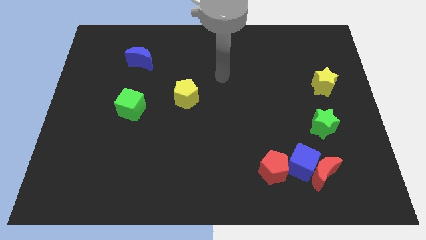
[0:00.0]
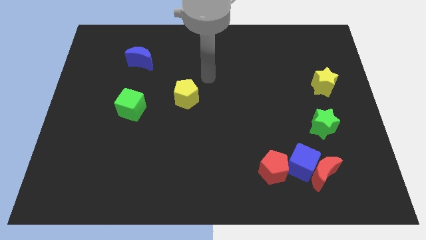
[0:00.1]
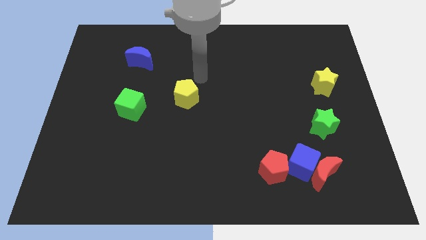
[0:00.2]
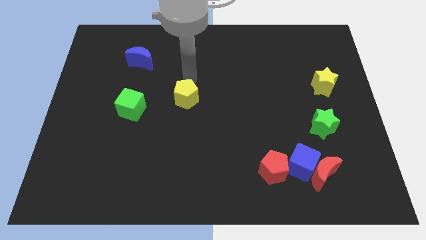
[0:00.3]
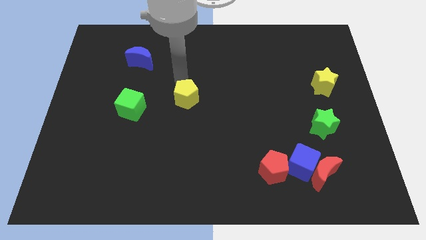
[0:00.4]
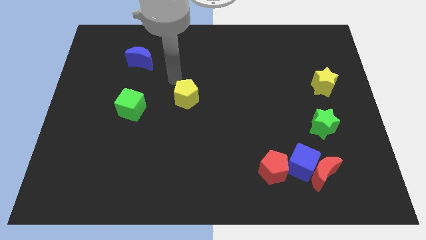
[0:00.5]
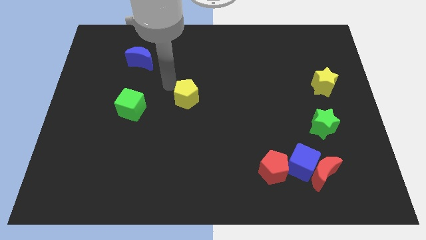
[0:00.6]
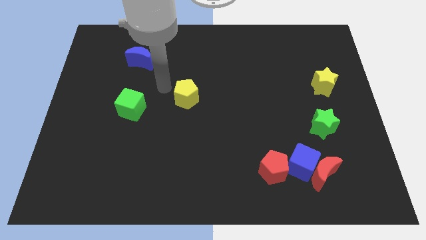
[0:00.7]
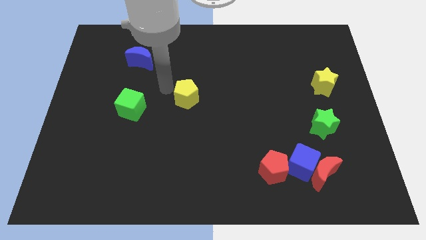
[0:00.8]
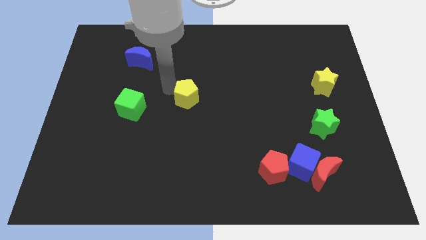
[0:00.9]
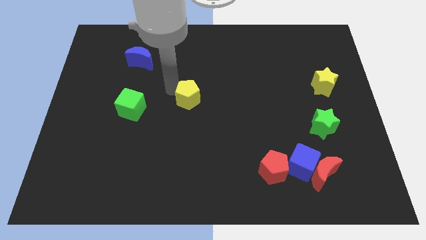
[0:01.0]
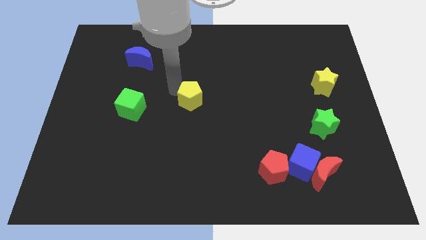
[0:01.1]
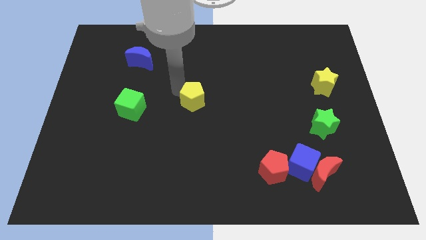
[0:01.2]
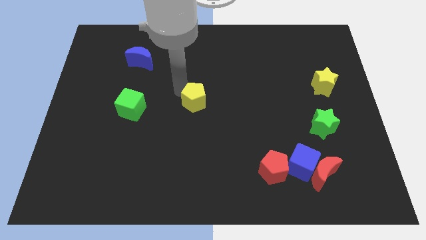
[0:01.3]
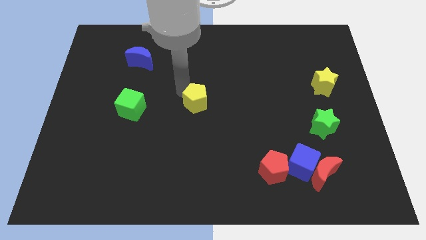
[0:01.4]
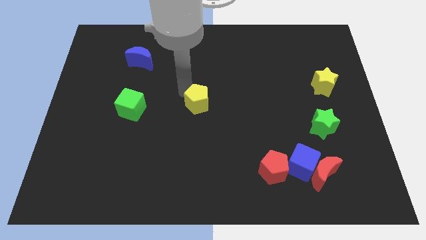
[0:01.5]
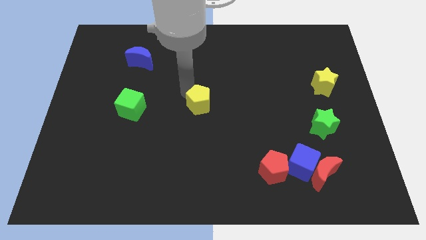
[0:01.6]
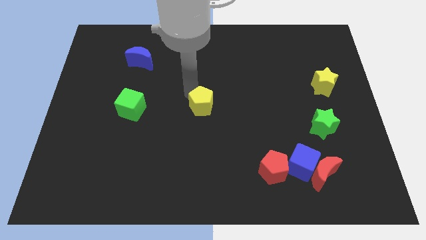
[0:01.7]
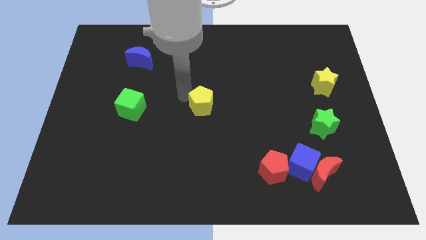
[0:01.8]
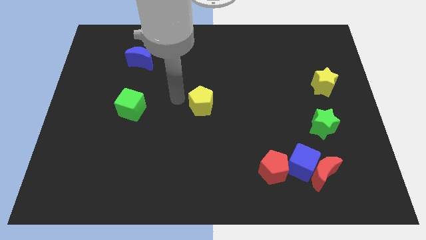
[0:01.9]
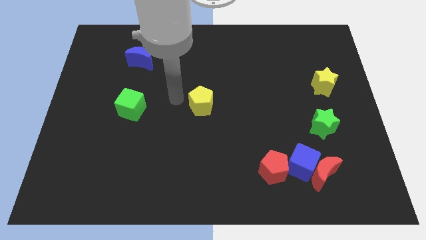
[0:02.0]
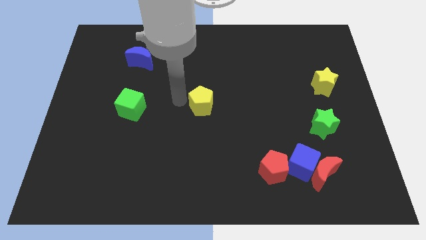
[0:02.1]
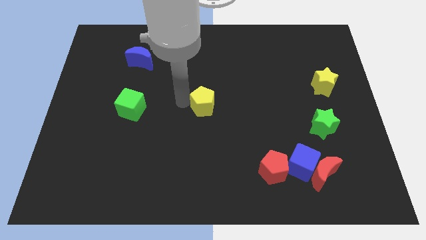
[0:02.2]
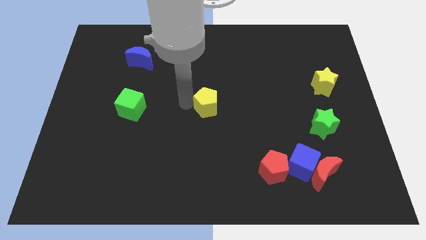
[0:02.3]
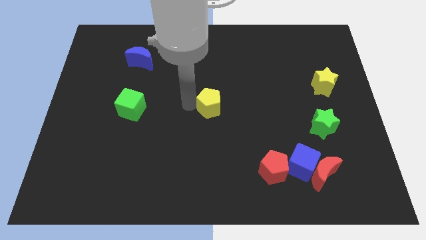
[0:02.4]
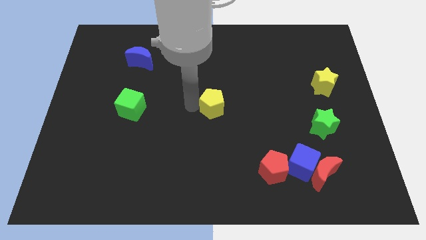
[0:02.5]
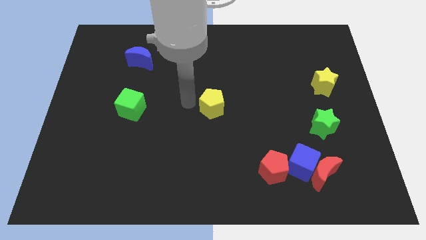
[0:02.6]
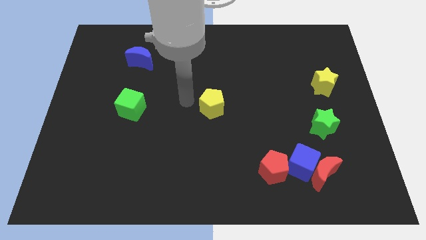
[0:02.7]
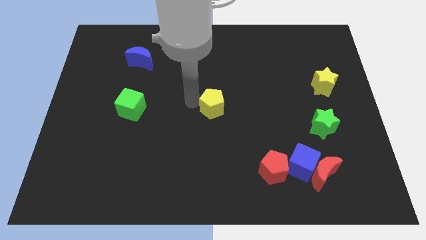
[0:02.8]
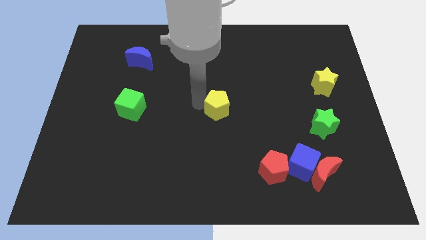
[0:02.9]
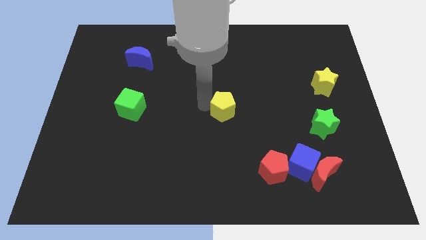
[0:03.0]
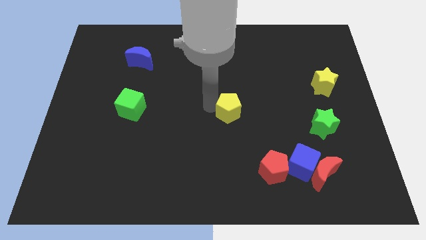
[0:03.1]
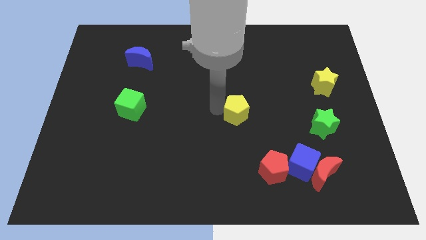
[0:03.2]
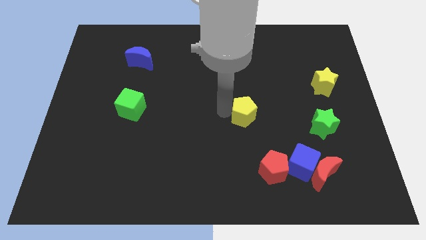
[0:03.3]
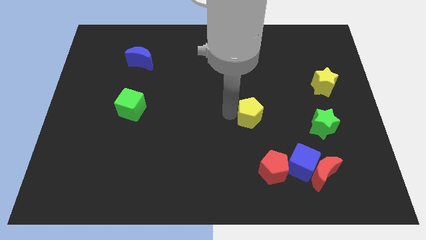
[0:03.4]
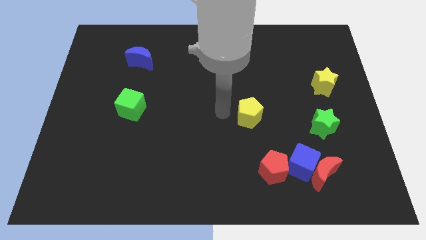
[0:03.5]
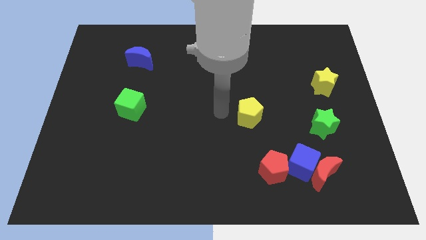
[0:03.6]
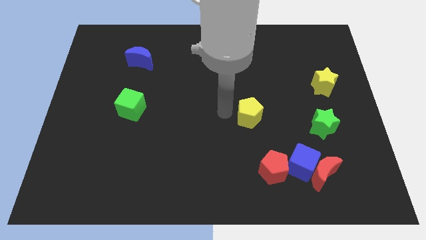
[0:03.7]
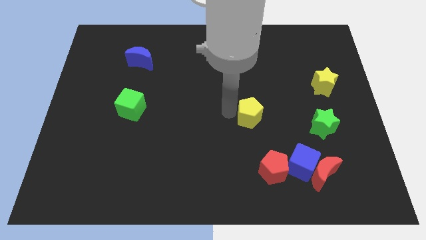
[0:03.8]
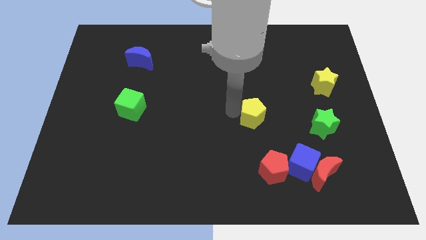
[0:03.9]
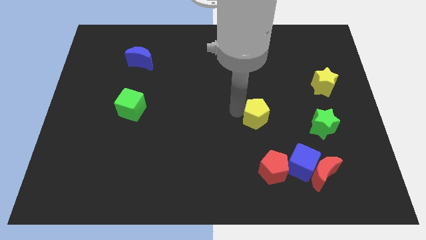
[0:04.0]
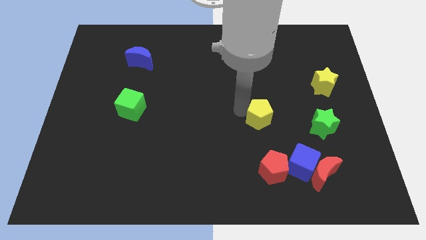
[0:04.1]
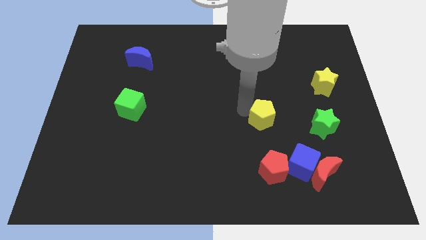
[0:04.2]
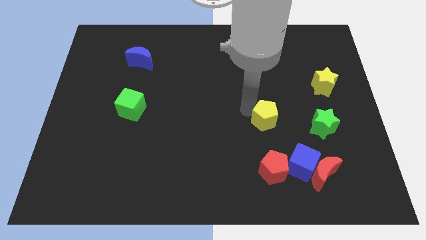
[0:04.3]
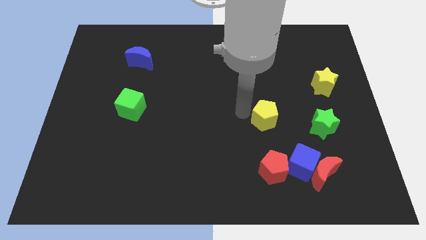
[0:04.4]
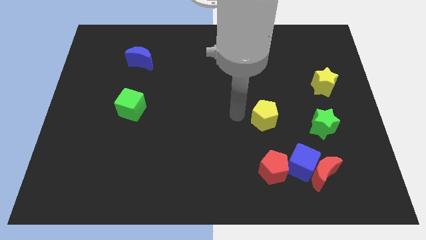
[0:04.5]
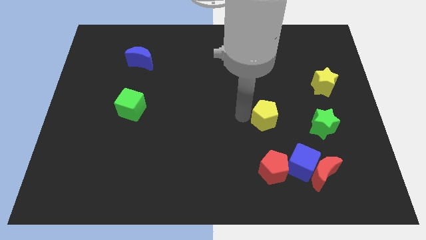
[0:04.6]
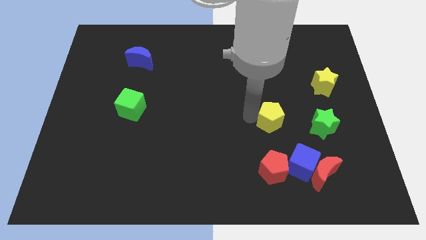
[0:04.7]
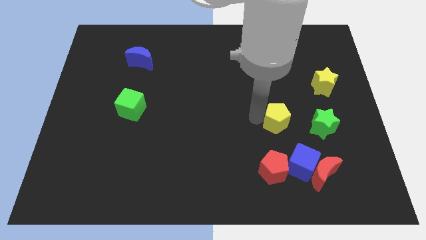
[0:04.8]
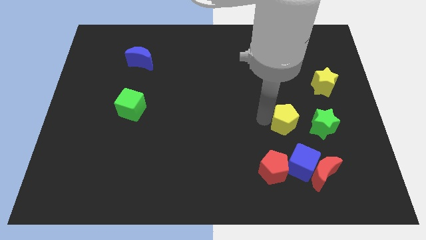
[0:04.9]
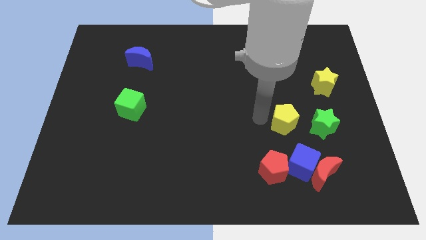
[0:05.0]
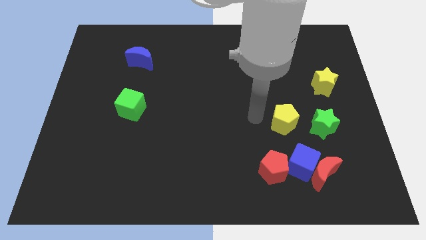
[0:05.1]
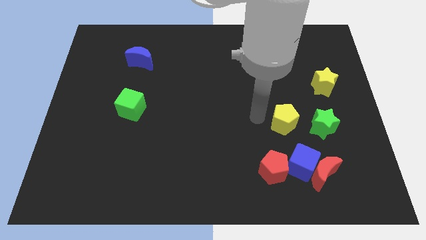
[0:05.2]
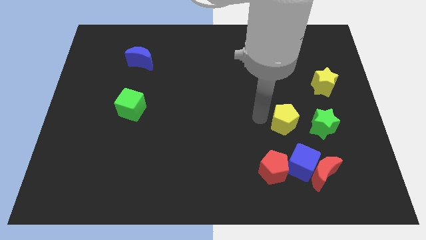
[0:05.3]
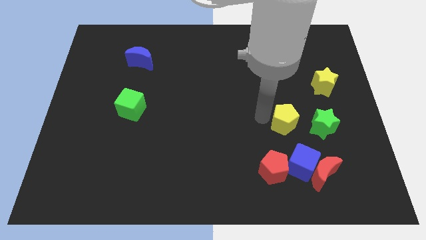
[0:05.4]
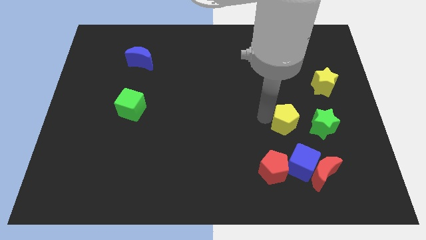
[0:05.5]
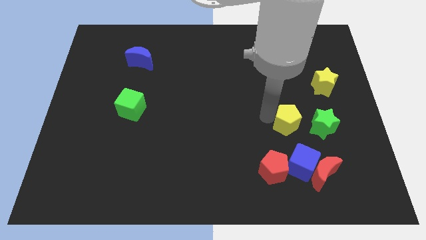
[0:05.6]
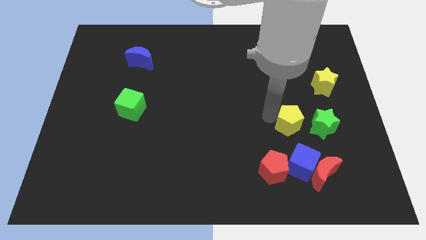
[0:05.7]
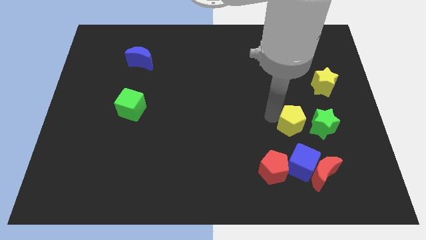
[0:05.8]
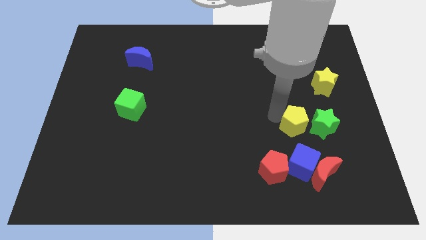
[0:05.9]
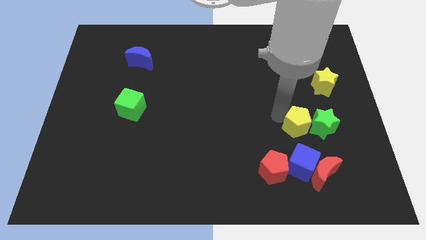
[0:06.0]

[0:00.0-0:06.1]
push the yellow pentagon to the green star

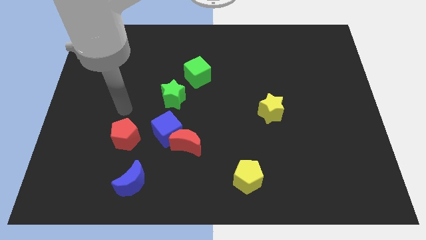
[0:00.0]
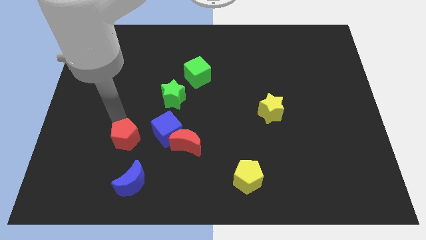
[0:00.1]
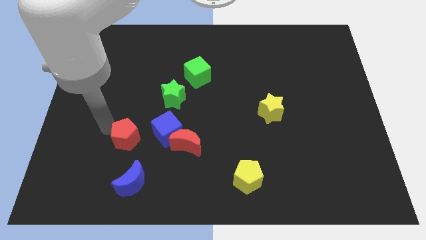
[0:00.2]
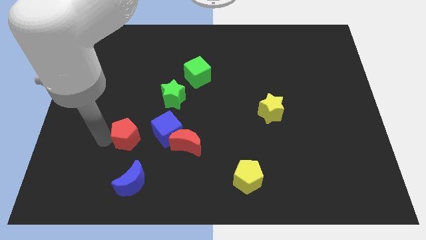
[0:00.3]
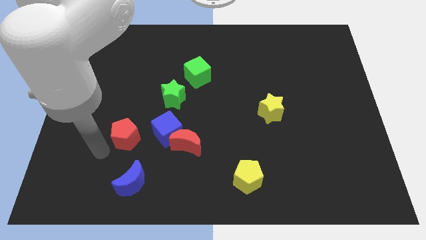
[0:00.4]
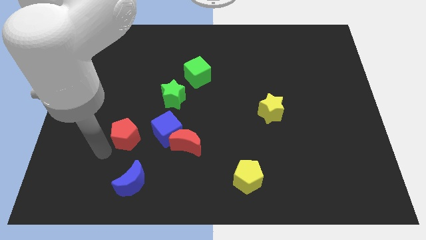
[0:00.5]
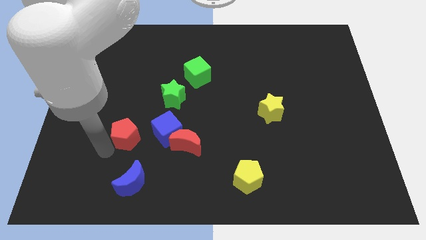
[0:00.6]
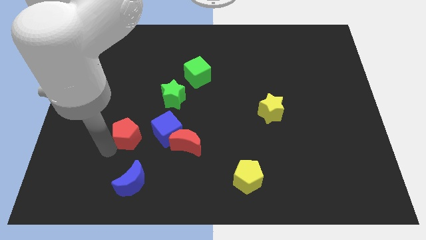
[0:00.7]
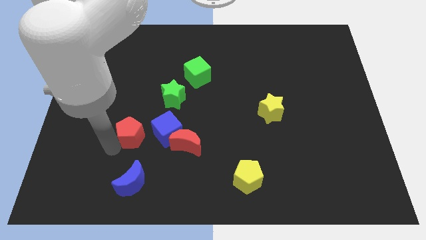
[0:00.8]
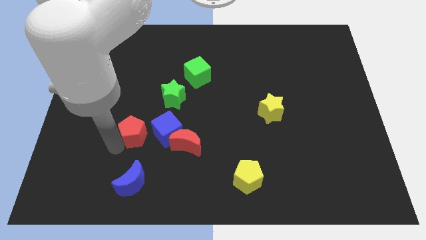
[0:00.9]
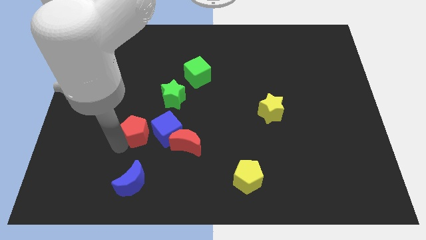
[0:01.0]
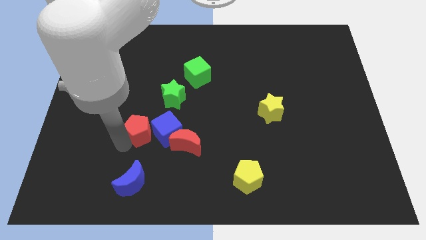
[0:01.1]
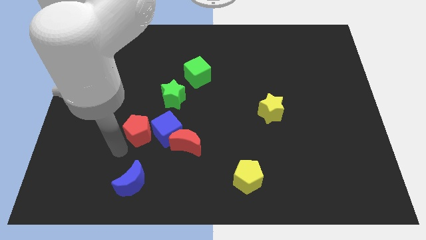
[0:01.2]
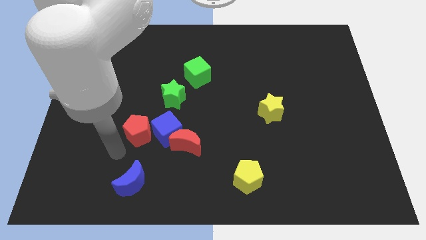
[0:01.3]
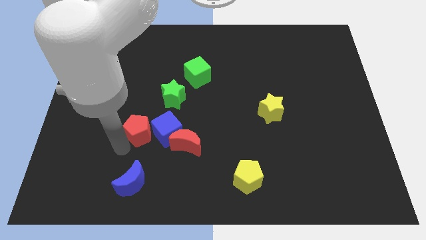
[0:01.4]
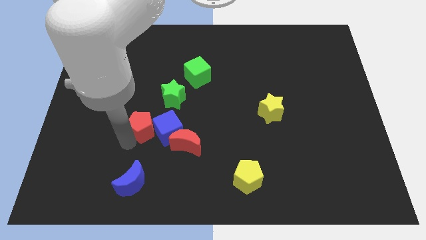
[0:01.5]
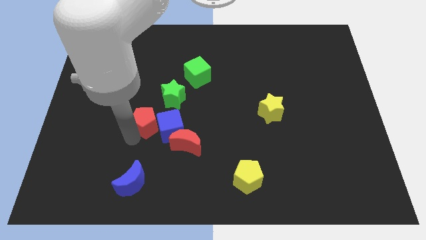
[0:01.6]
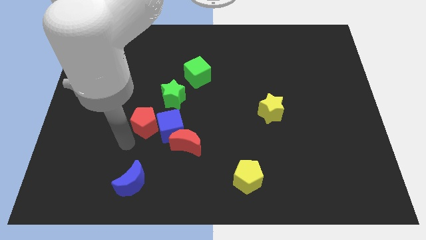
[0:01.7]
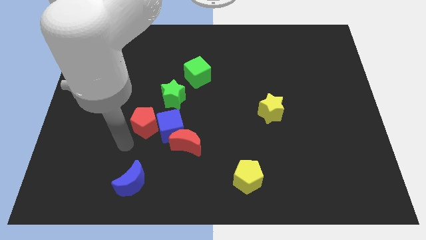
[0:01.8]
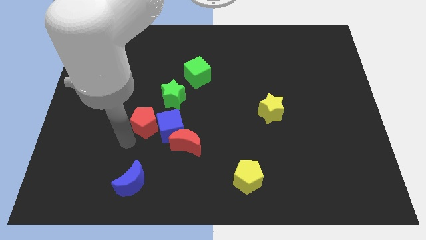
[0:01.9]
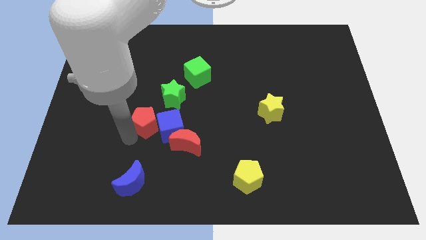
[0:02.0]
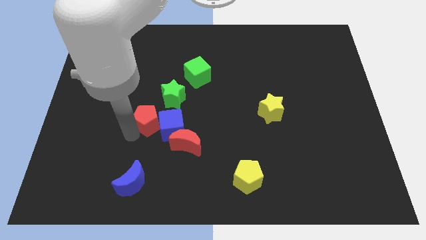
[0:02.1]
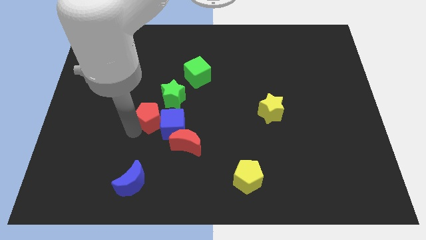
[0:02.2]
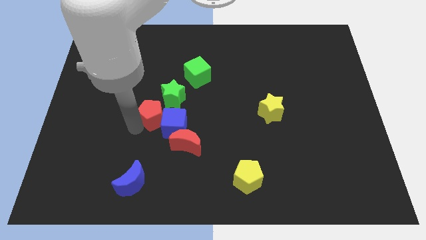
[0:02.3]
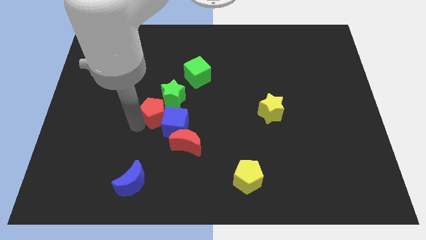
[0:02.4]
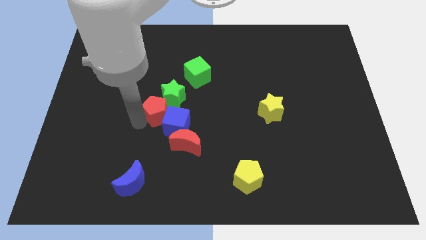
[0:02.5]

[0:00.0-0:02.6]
move the red pentagon towards the green star

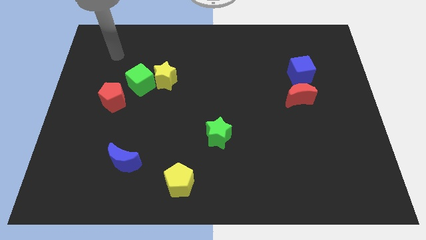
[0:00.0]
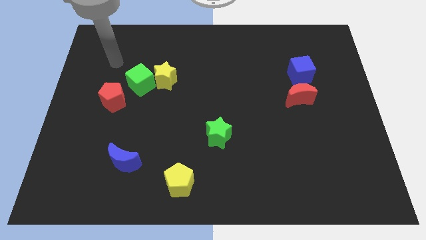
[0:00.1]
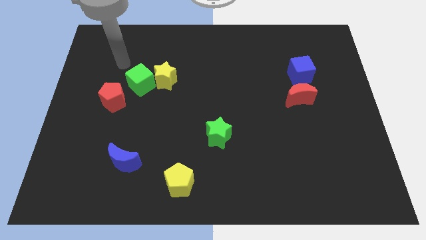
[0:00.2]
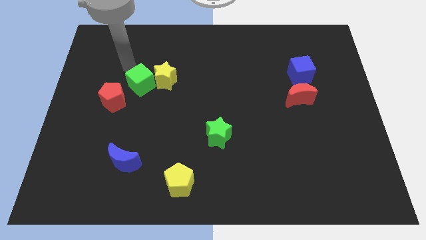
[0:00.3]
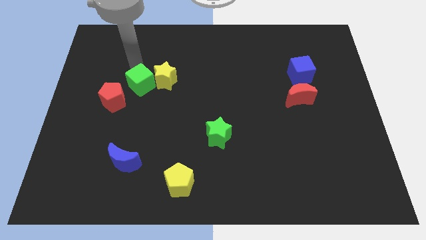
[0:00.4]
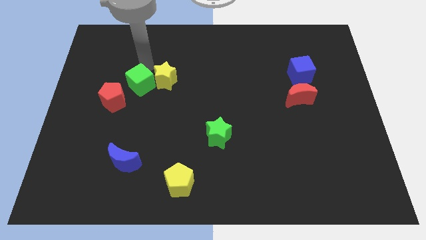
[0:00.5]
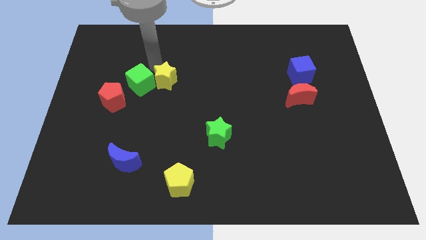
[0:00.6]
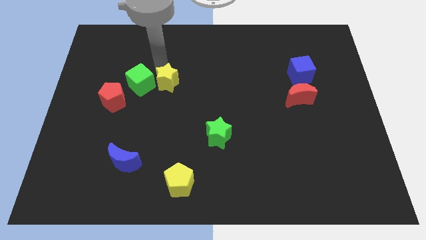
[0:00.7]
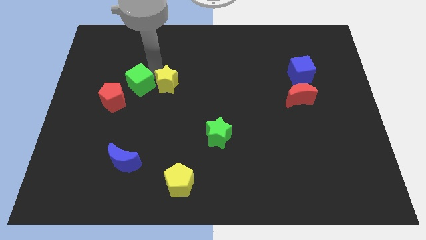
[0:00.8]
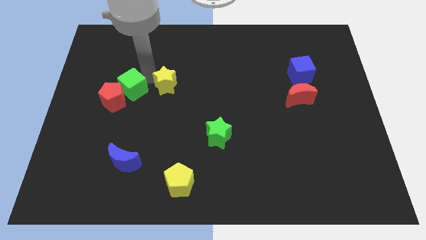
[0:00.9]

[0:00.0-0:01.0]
slide the green cube next to the red pentagon
